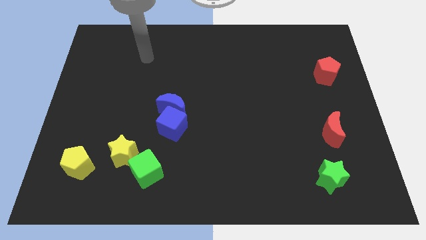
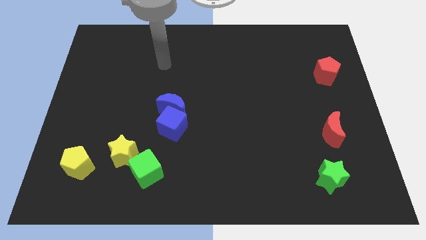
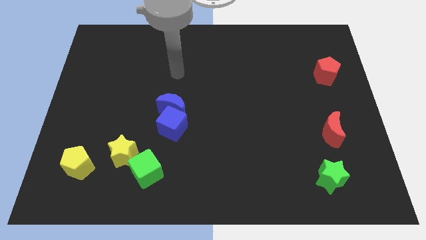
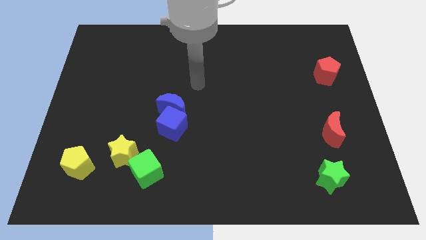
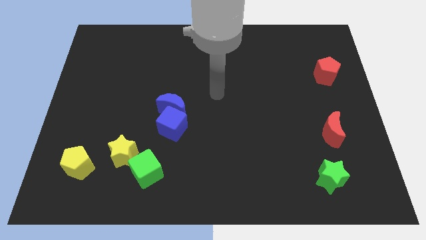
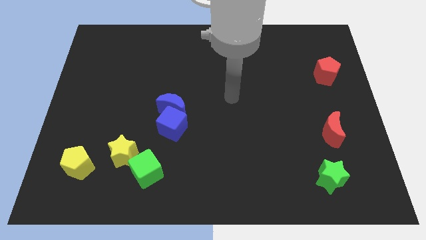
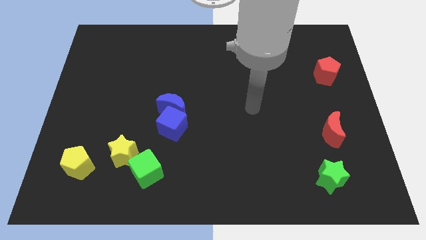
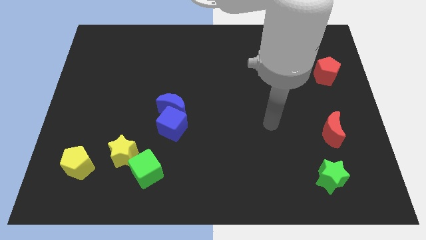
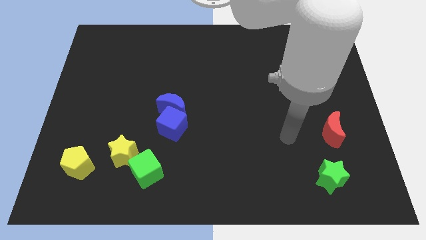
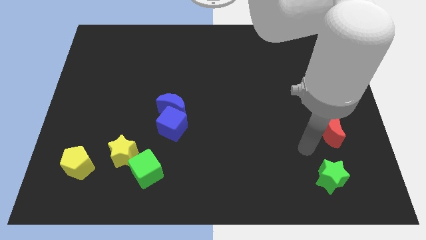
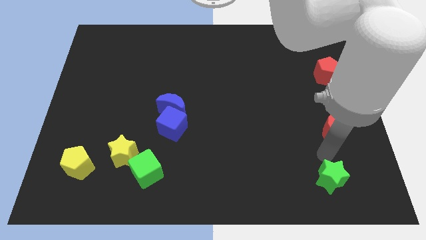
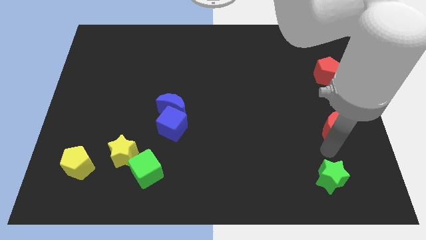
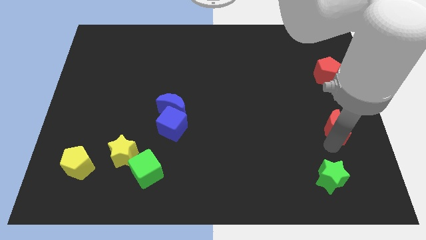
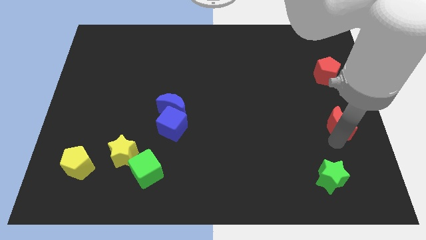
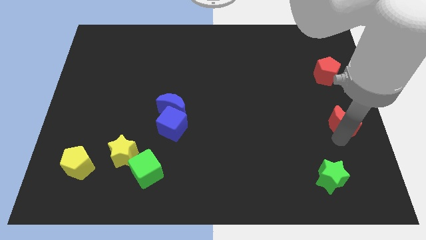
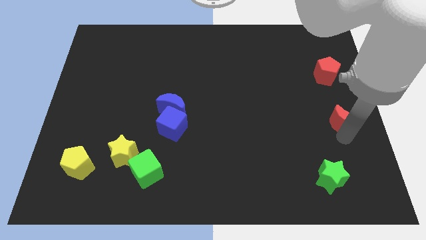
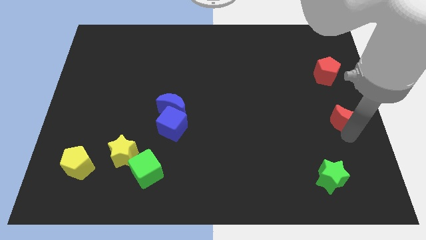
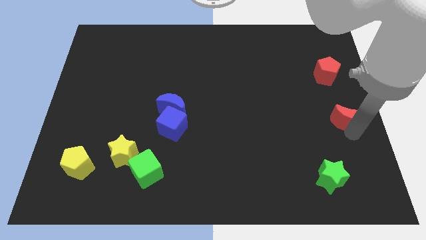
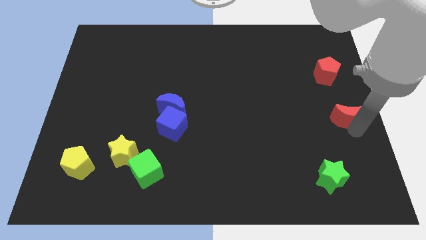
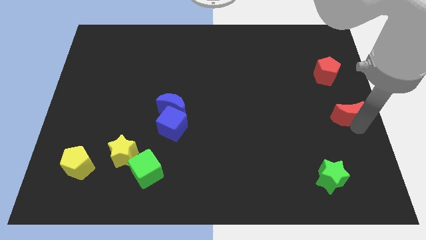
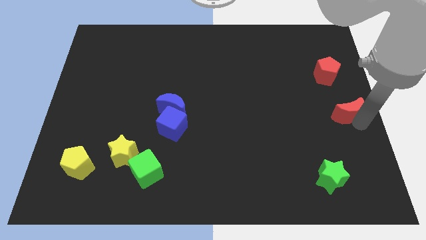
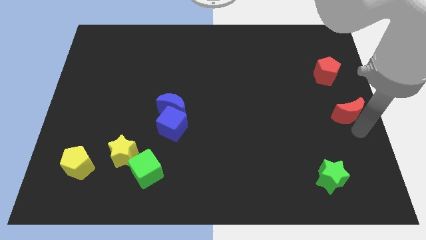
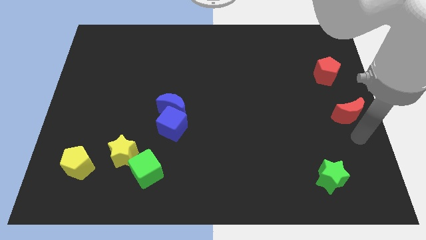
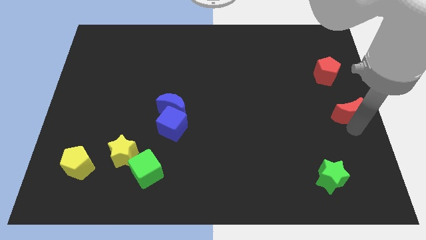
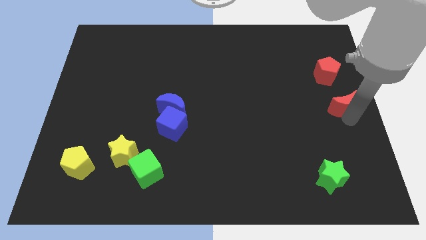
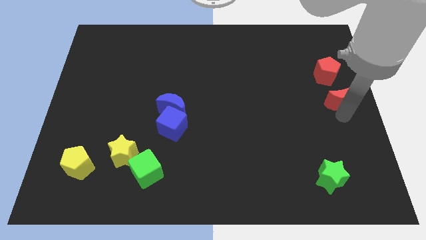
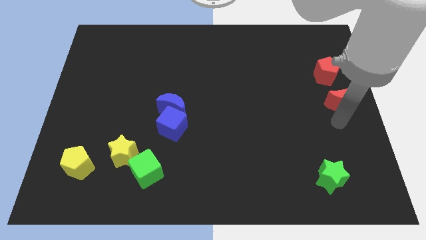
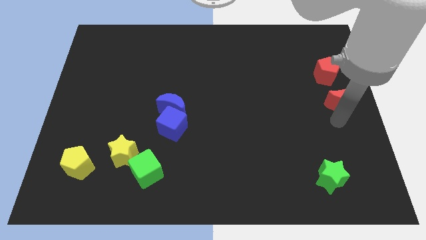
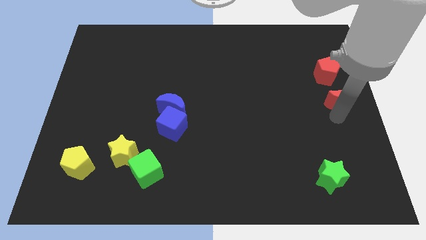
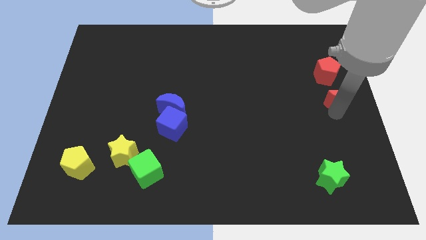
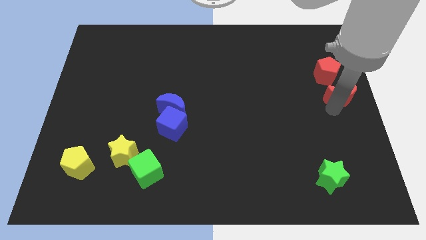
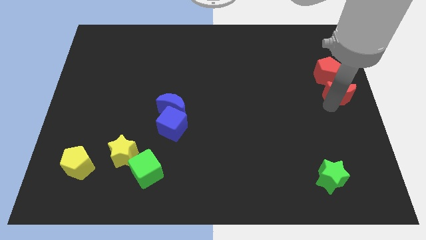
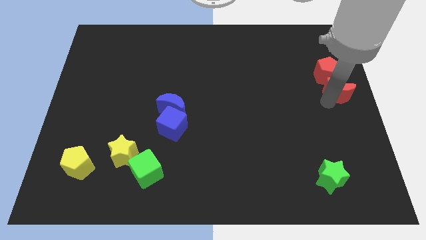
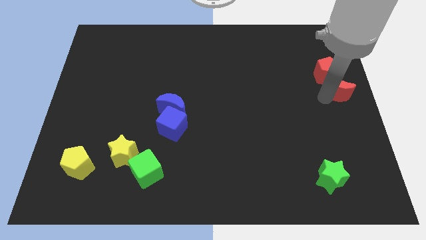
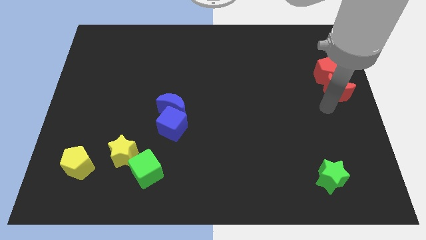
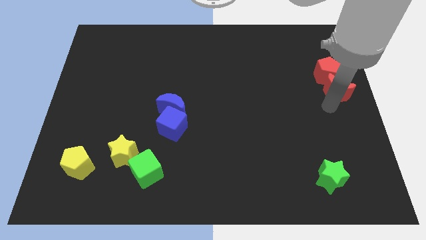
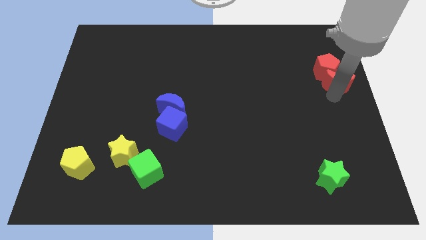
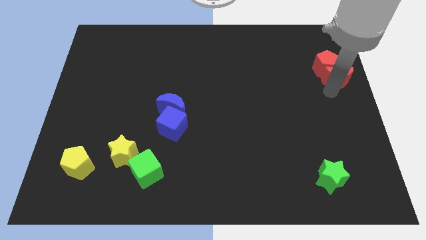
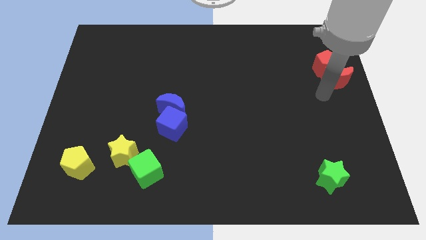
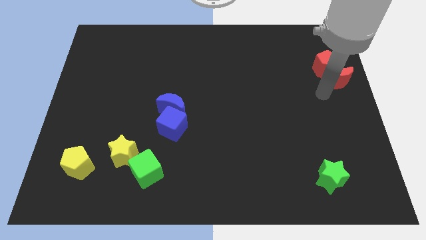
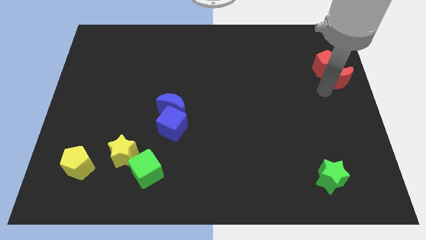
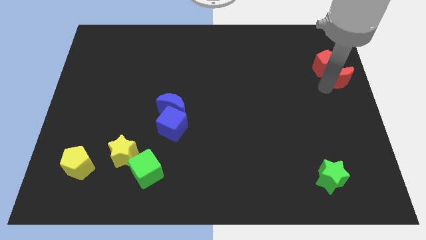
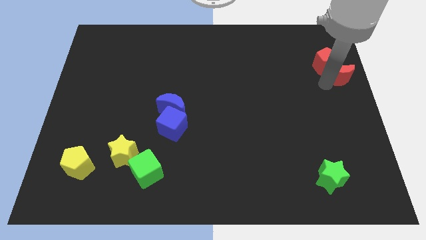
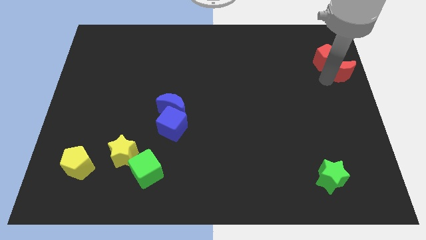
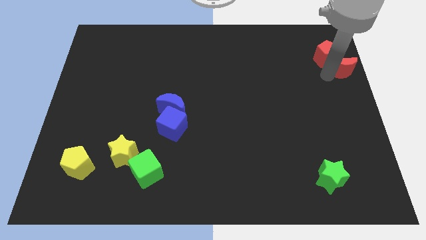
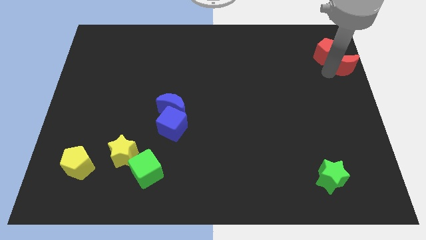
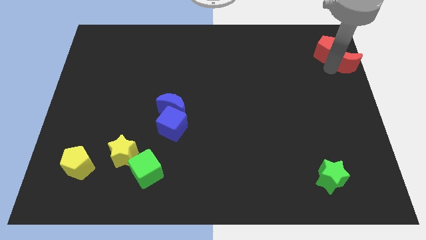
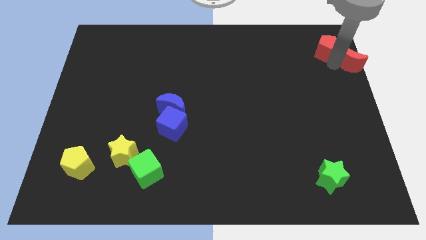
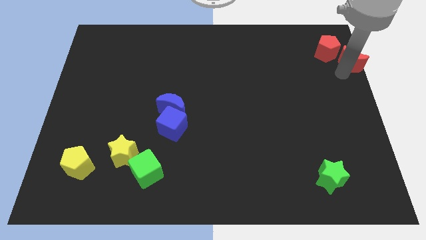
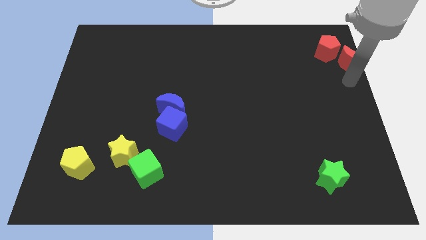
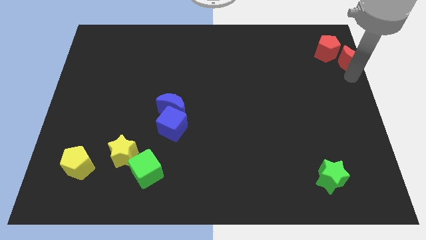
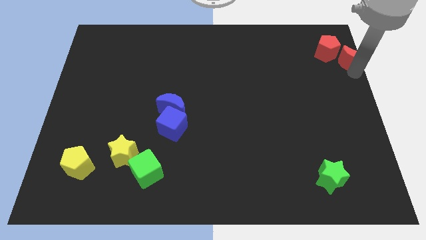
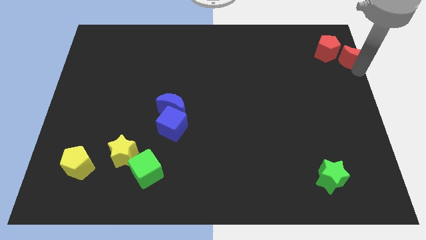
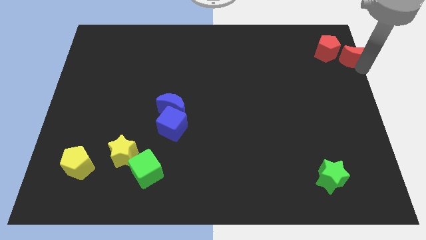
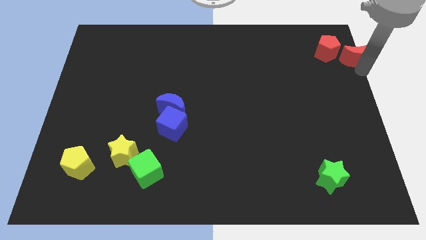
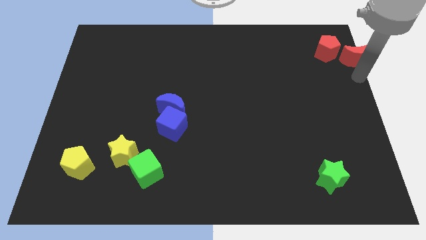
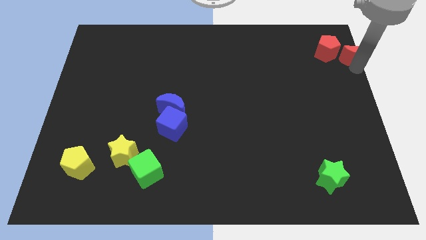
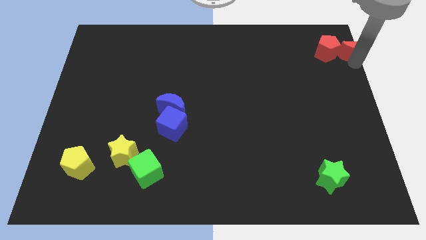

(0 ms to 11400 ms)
slide the red moon to the upper right corner

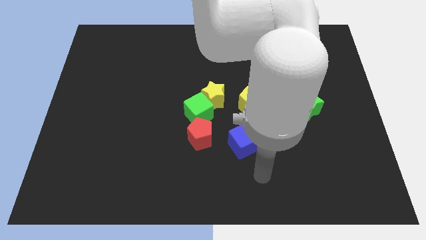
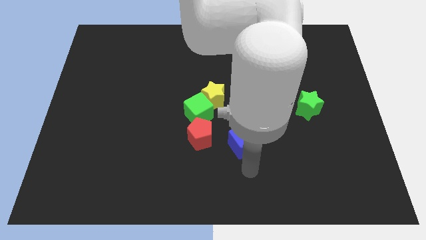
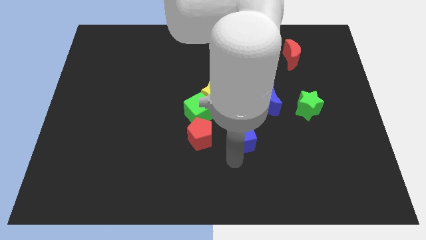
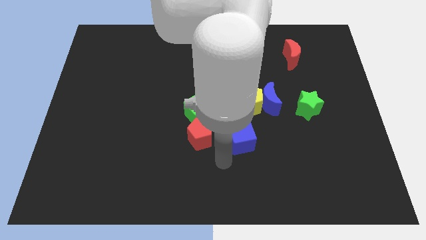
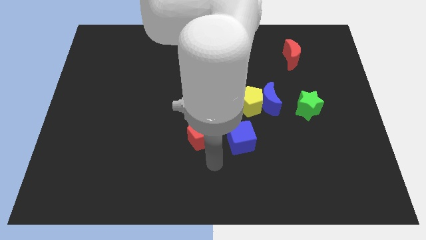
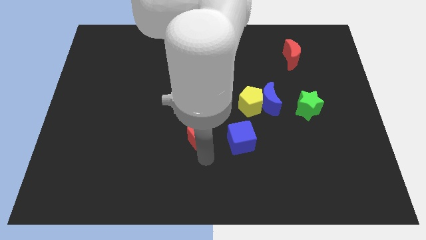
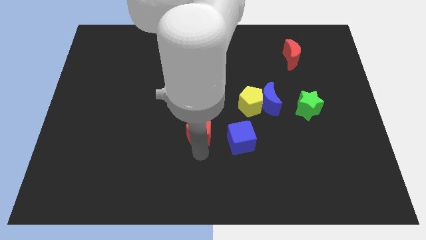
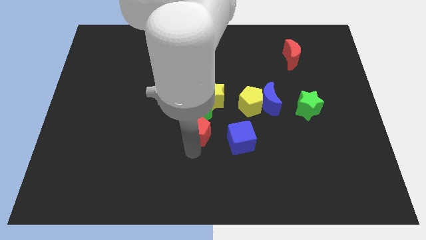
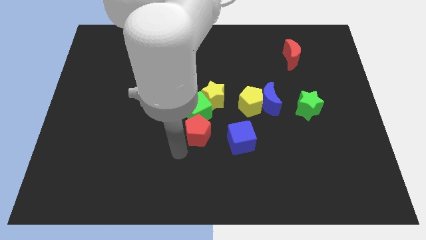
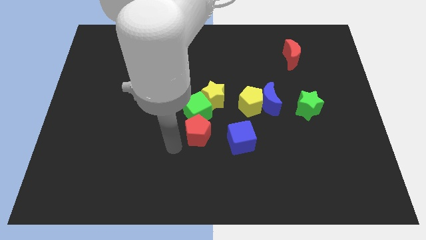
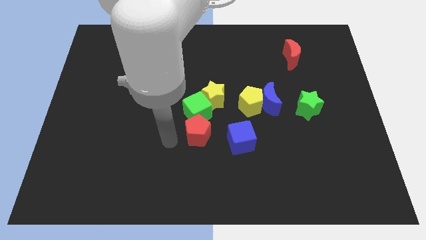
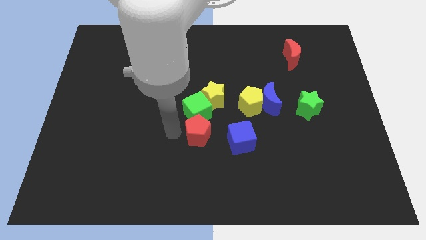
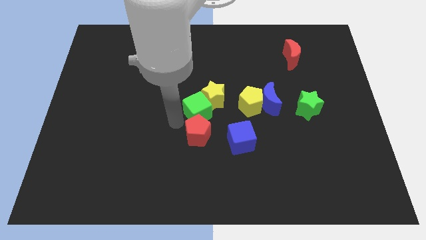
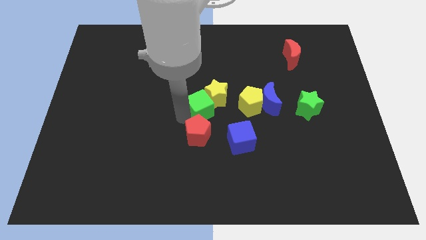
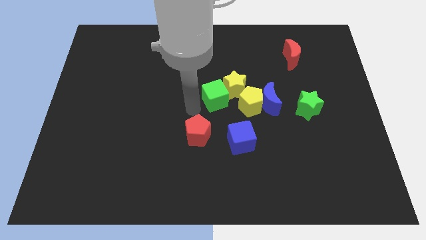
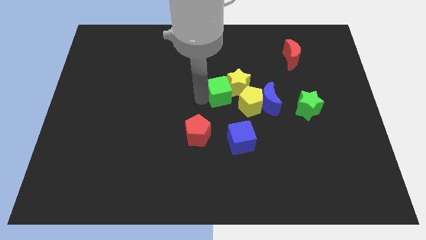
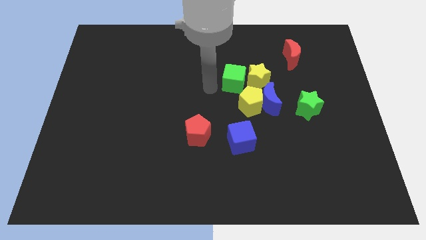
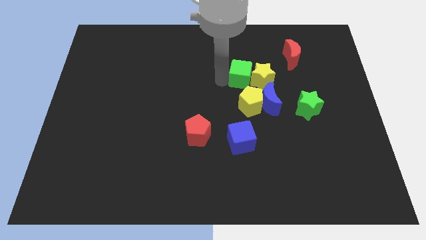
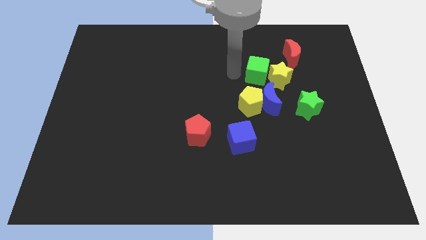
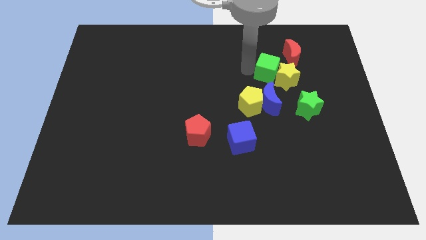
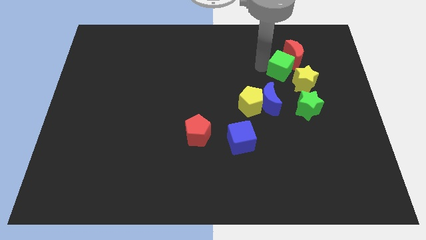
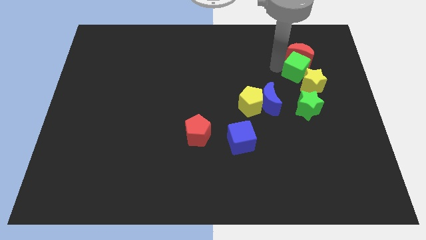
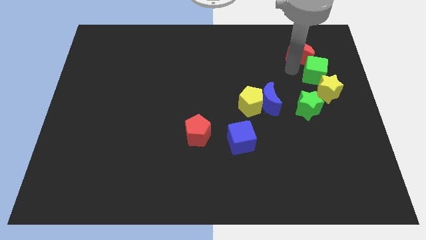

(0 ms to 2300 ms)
slide the yellow star to the center right
